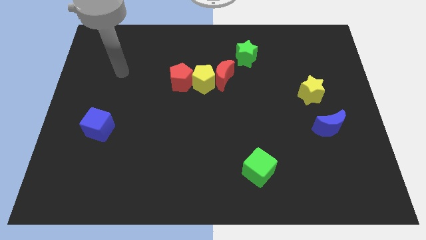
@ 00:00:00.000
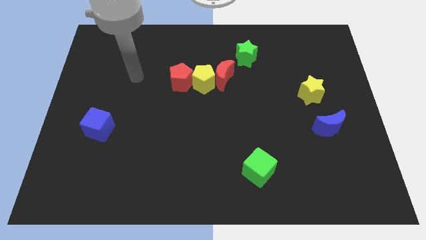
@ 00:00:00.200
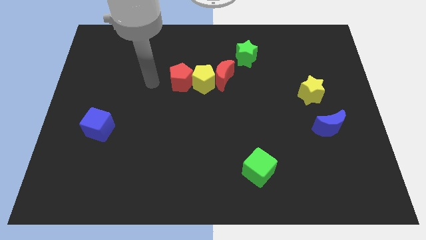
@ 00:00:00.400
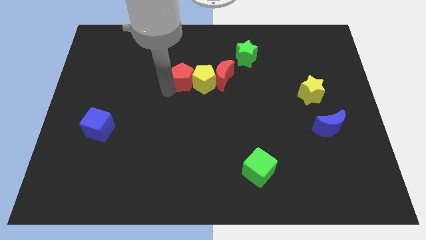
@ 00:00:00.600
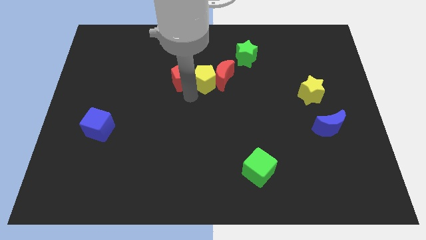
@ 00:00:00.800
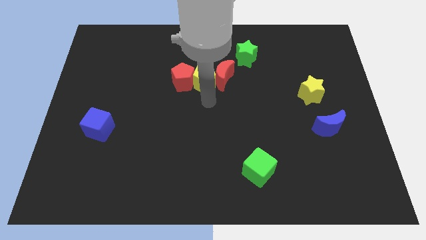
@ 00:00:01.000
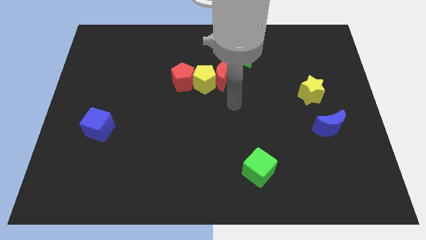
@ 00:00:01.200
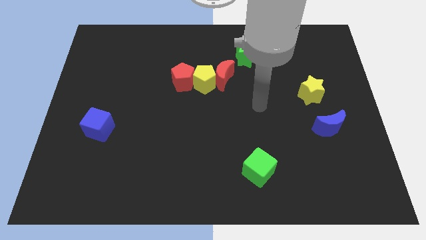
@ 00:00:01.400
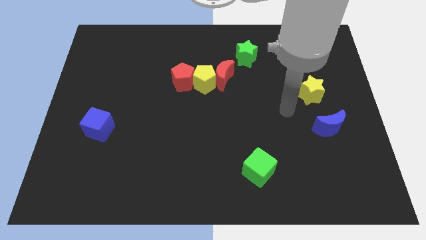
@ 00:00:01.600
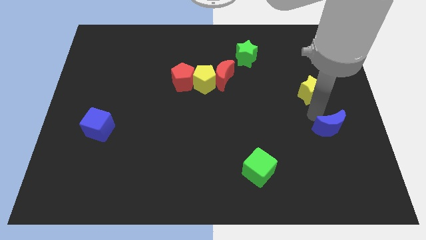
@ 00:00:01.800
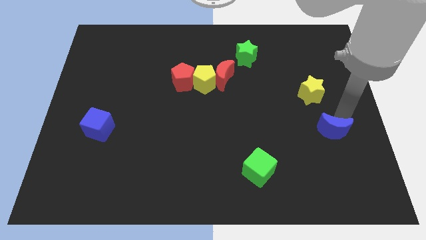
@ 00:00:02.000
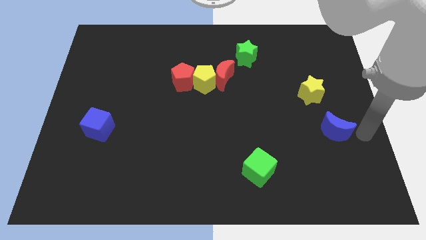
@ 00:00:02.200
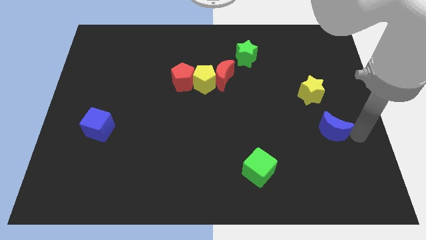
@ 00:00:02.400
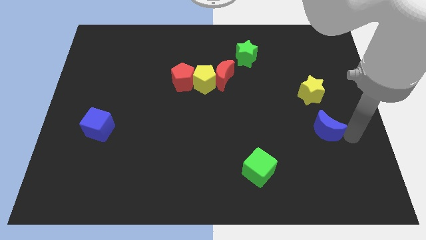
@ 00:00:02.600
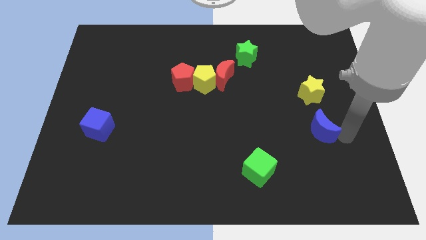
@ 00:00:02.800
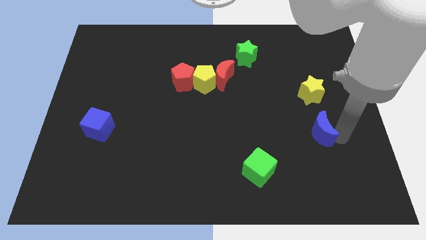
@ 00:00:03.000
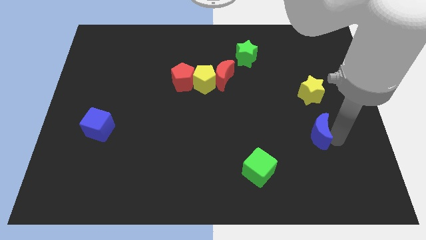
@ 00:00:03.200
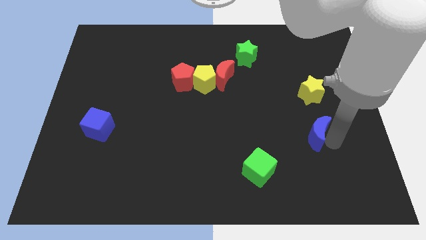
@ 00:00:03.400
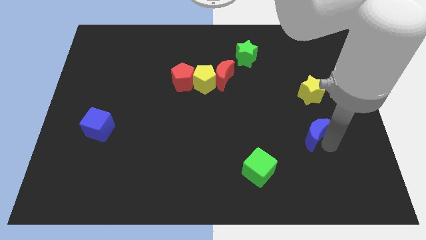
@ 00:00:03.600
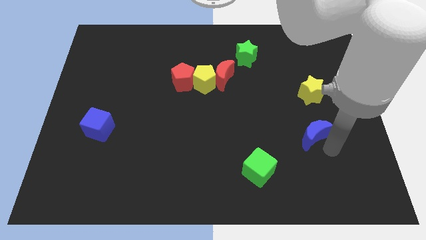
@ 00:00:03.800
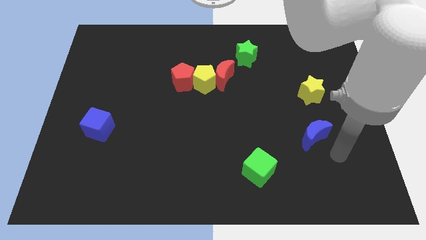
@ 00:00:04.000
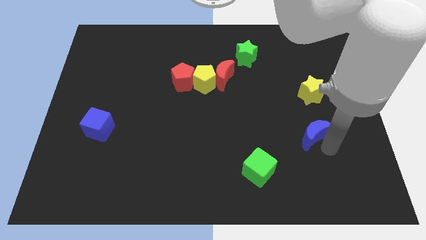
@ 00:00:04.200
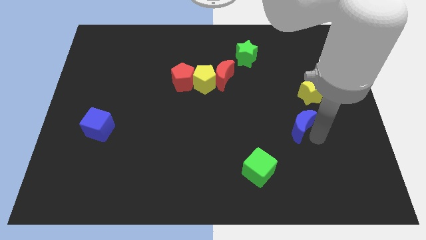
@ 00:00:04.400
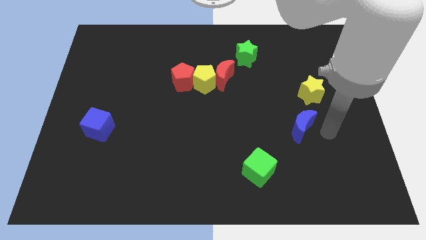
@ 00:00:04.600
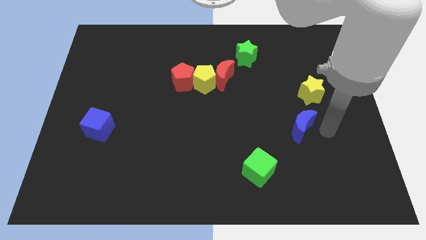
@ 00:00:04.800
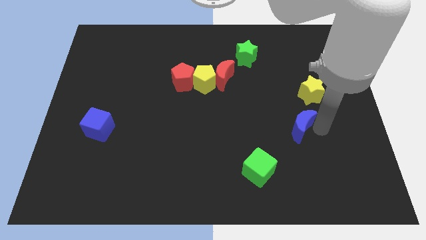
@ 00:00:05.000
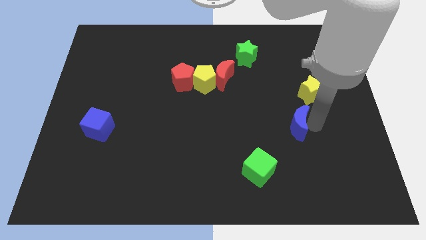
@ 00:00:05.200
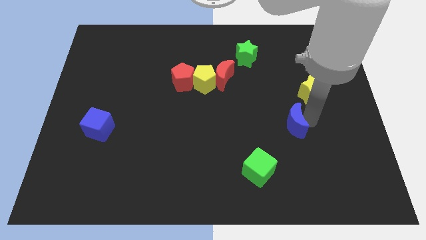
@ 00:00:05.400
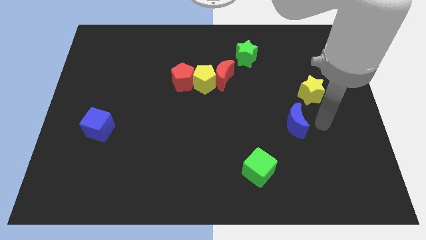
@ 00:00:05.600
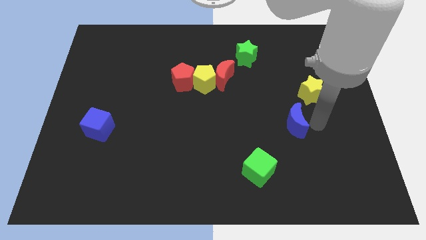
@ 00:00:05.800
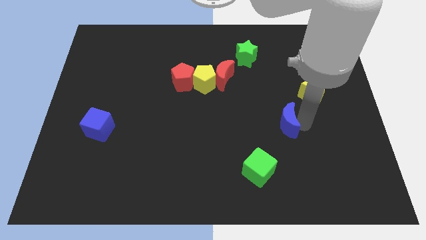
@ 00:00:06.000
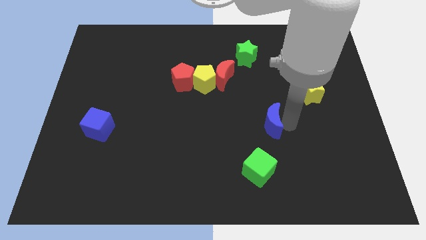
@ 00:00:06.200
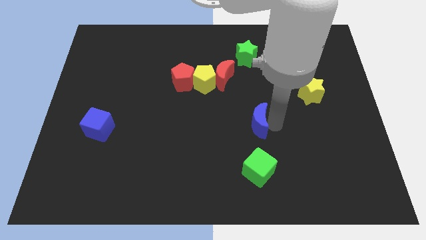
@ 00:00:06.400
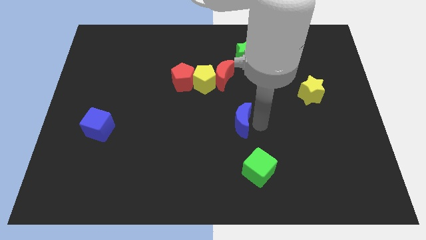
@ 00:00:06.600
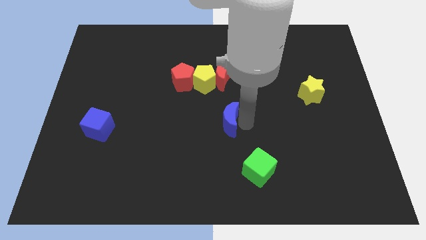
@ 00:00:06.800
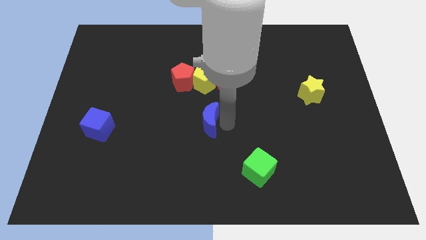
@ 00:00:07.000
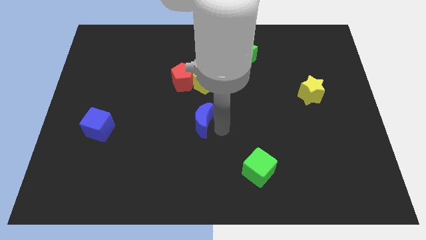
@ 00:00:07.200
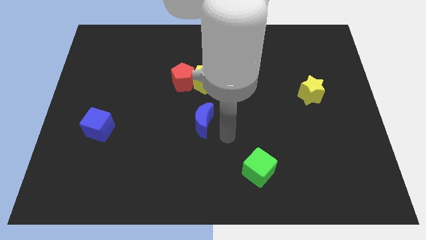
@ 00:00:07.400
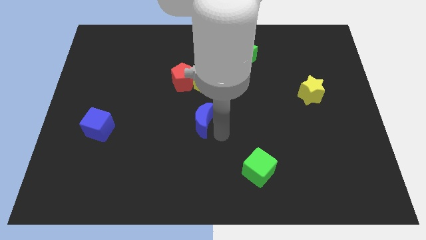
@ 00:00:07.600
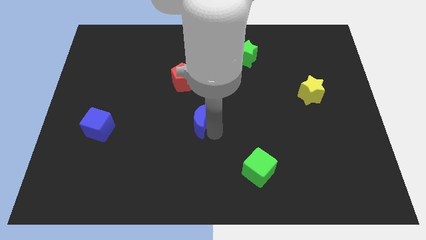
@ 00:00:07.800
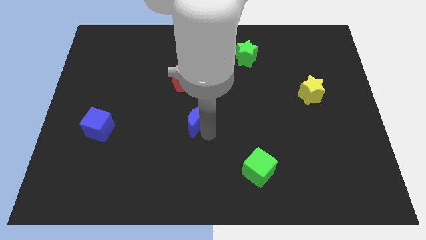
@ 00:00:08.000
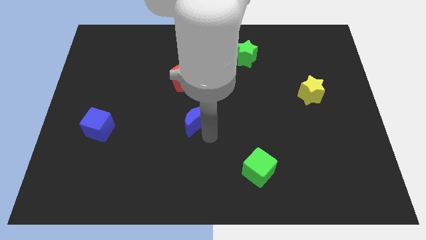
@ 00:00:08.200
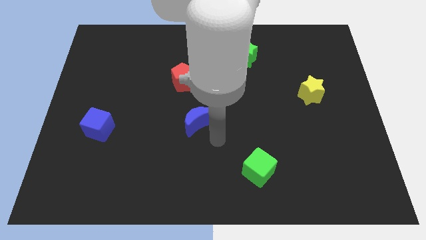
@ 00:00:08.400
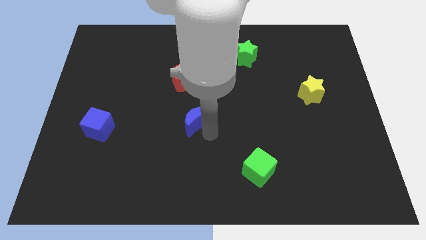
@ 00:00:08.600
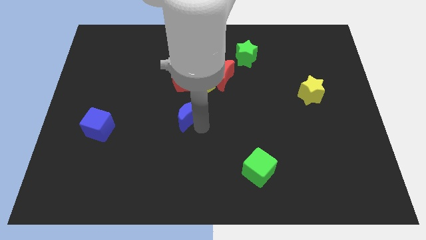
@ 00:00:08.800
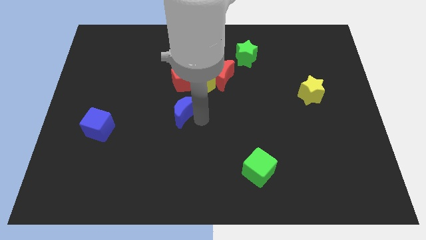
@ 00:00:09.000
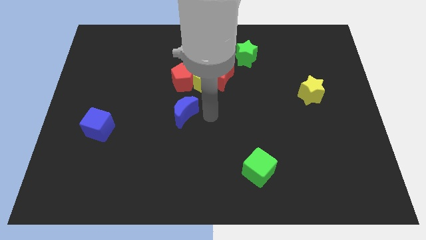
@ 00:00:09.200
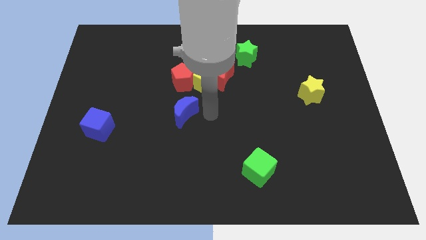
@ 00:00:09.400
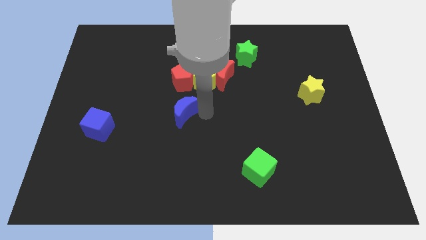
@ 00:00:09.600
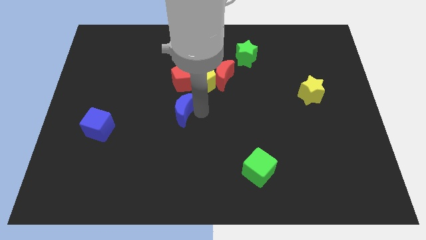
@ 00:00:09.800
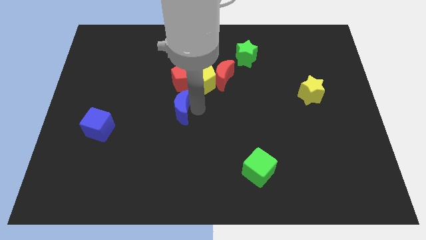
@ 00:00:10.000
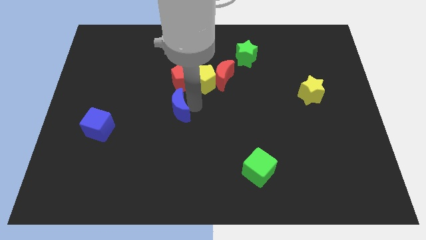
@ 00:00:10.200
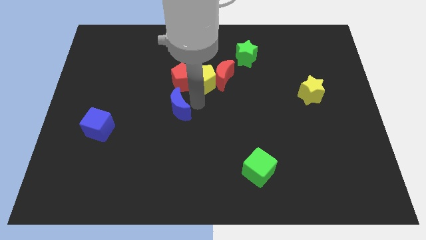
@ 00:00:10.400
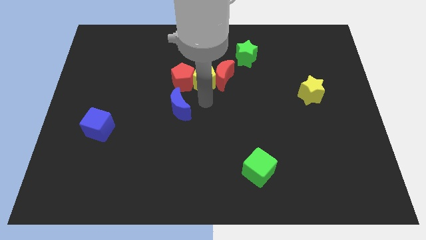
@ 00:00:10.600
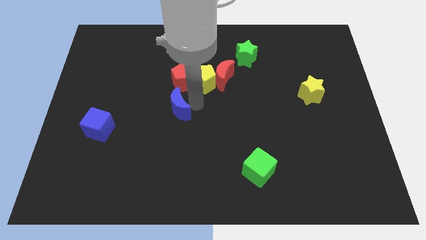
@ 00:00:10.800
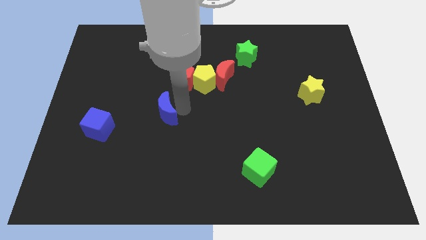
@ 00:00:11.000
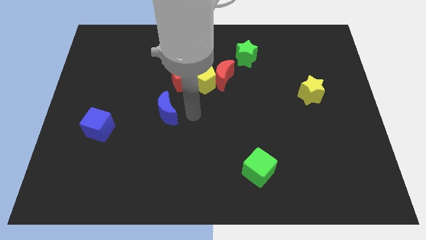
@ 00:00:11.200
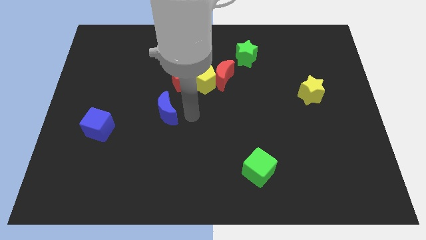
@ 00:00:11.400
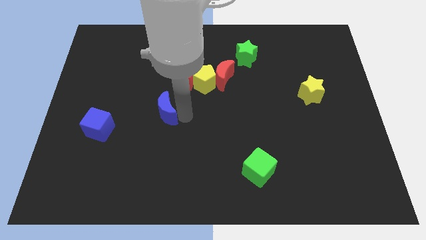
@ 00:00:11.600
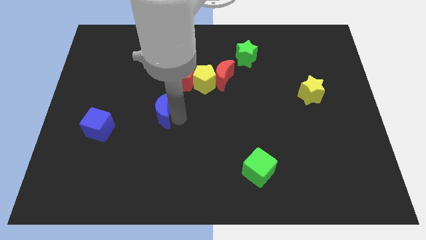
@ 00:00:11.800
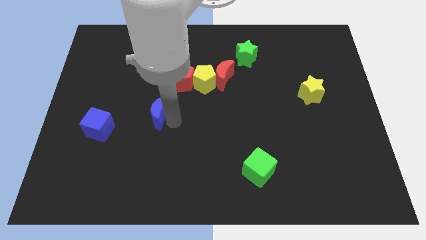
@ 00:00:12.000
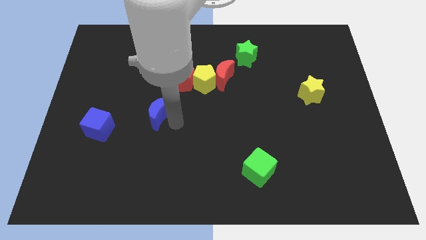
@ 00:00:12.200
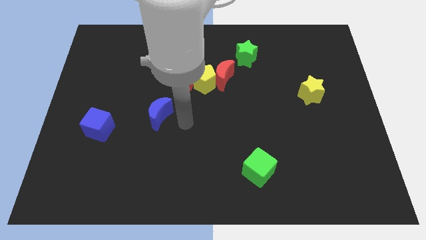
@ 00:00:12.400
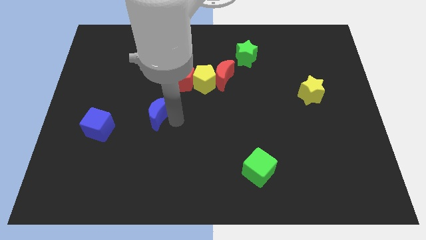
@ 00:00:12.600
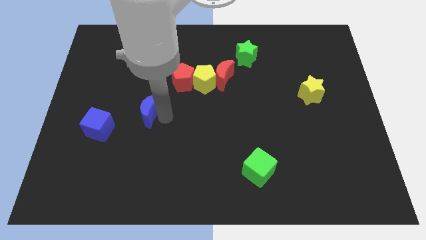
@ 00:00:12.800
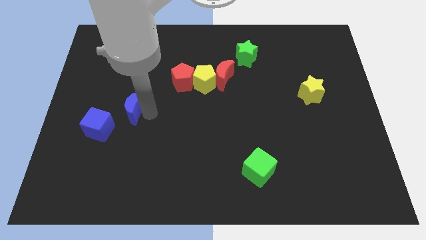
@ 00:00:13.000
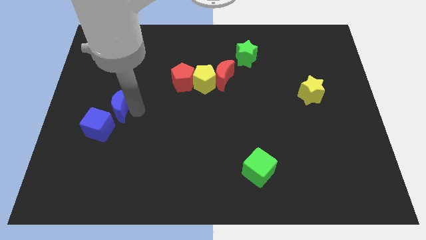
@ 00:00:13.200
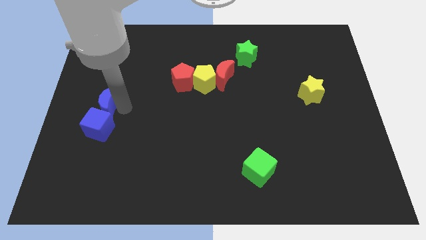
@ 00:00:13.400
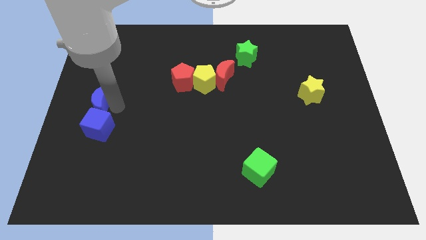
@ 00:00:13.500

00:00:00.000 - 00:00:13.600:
slide the blue moon to the left side
